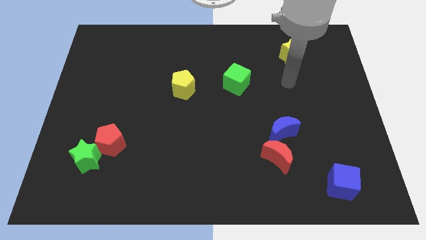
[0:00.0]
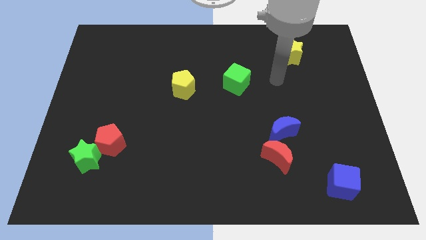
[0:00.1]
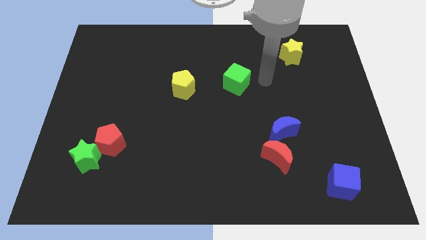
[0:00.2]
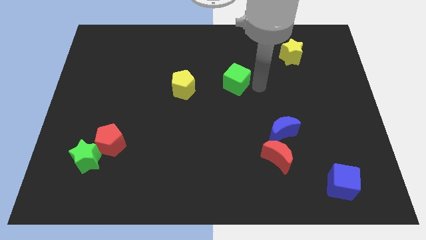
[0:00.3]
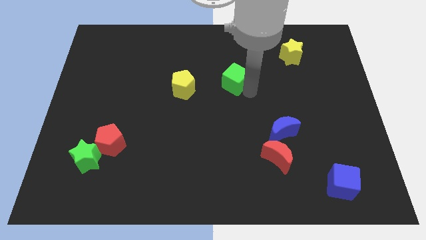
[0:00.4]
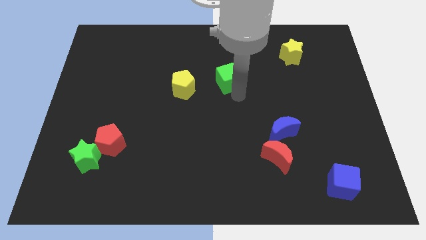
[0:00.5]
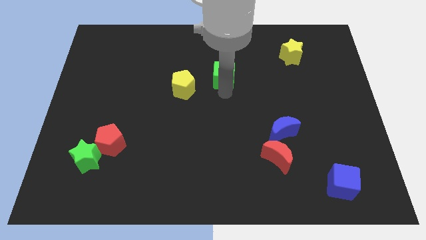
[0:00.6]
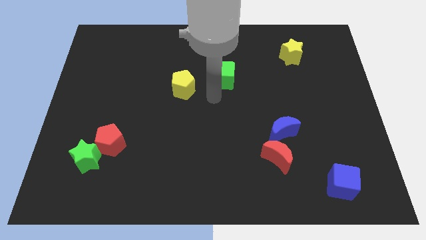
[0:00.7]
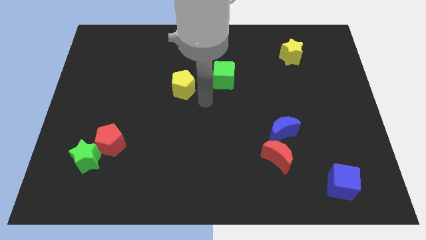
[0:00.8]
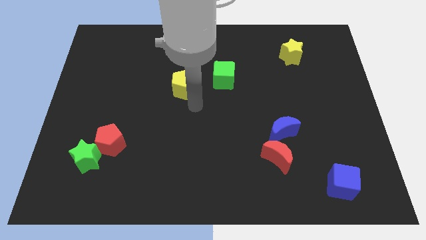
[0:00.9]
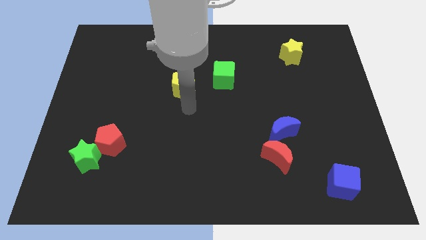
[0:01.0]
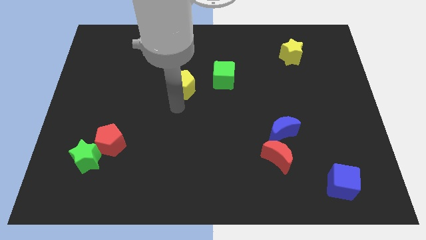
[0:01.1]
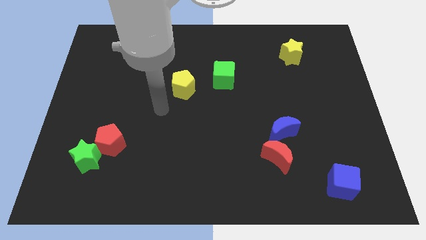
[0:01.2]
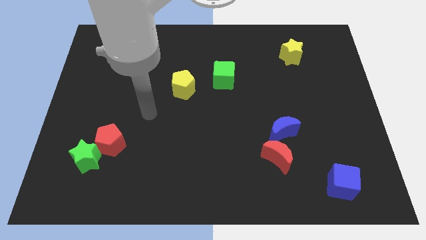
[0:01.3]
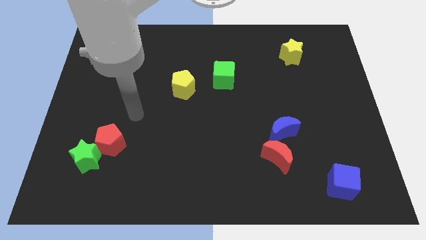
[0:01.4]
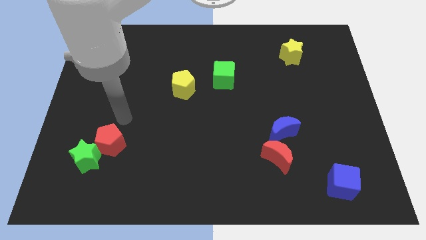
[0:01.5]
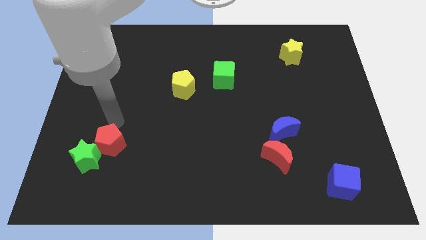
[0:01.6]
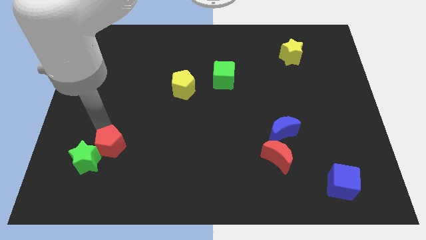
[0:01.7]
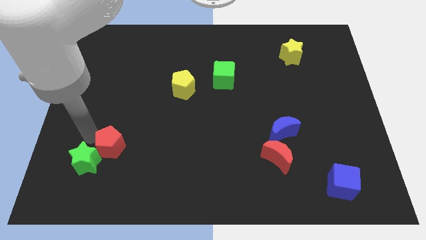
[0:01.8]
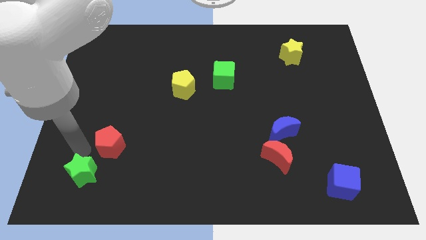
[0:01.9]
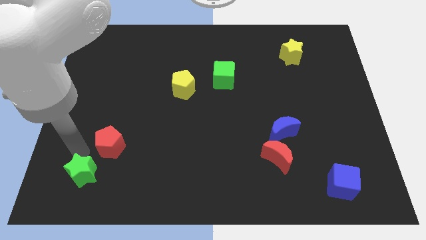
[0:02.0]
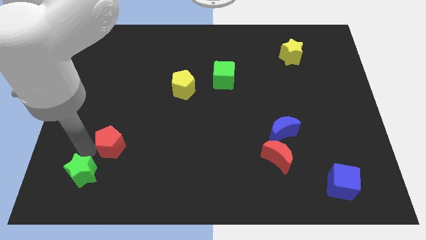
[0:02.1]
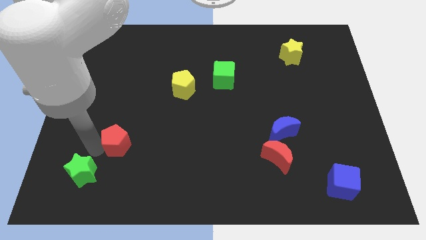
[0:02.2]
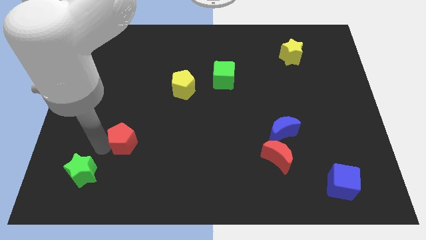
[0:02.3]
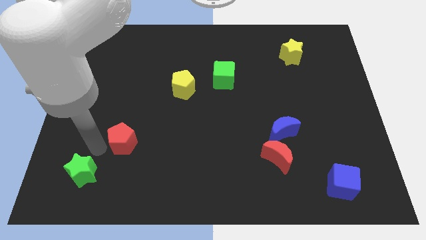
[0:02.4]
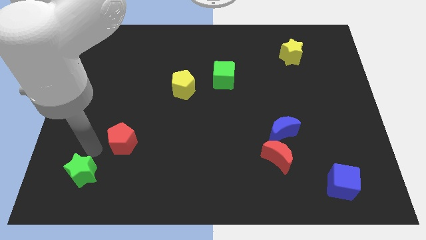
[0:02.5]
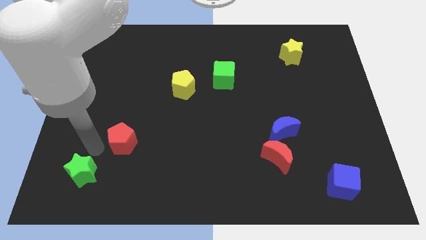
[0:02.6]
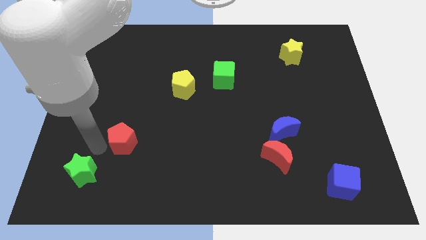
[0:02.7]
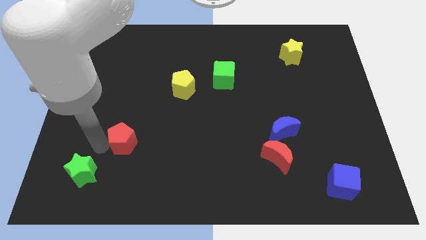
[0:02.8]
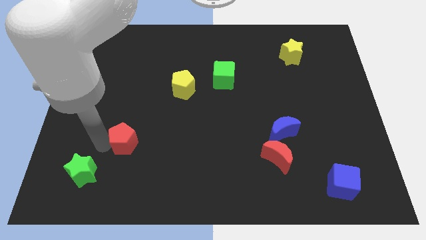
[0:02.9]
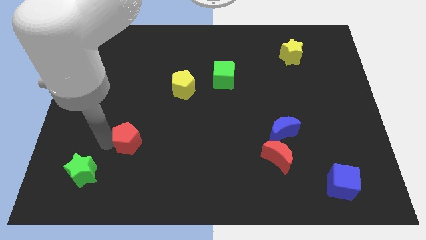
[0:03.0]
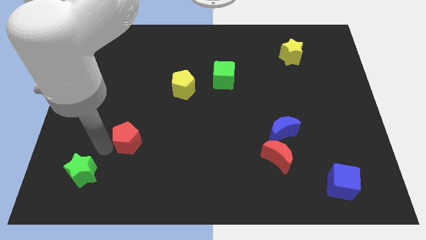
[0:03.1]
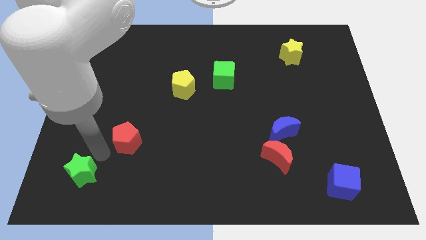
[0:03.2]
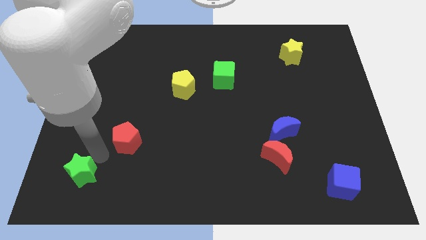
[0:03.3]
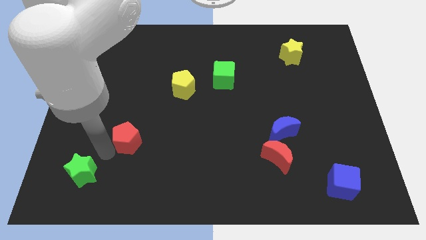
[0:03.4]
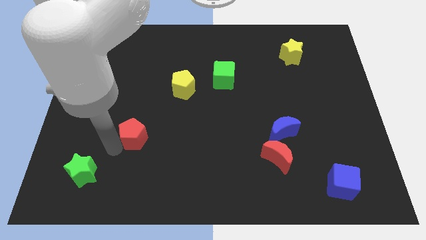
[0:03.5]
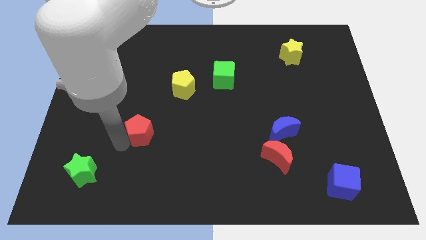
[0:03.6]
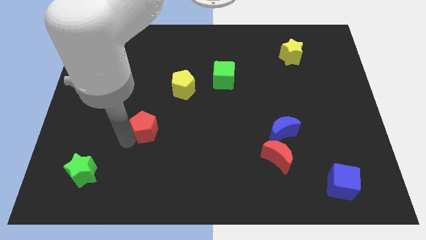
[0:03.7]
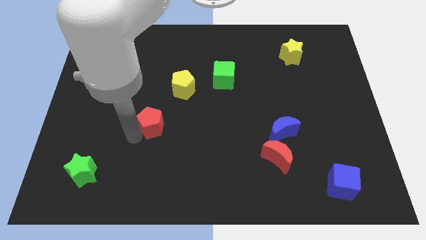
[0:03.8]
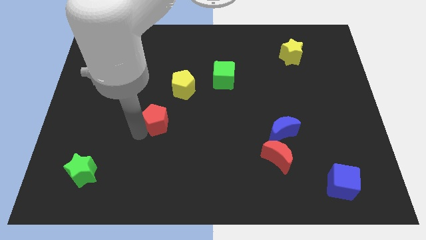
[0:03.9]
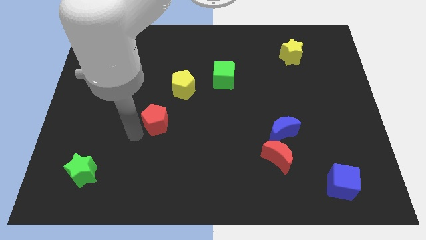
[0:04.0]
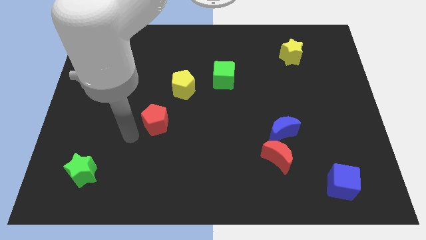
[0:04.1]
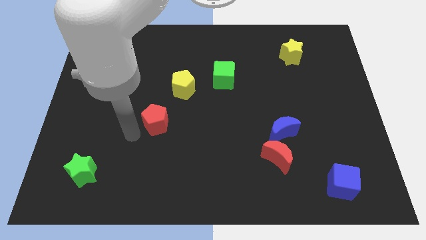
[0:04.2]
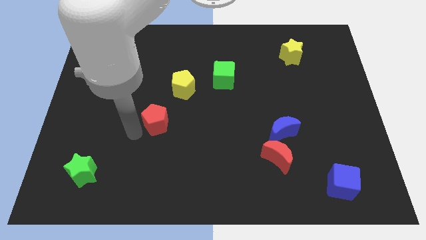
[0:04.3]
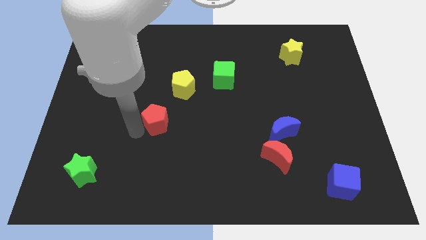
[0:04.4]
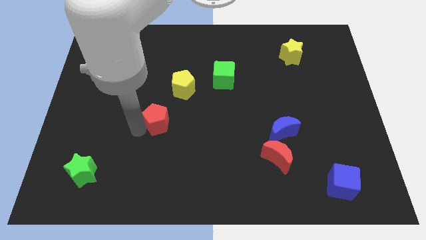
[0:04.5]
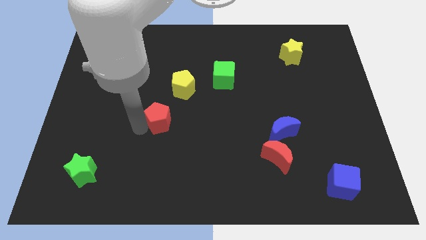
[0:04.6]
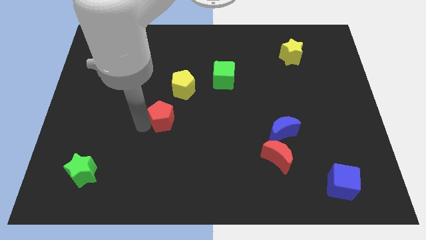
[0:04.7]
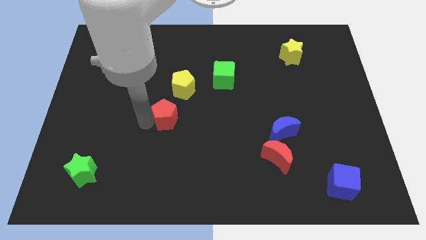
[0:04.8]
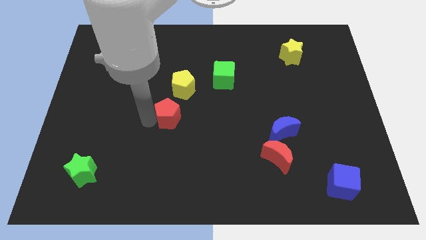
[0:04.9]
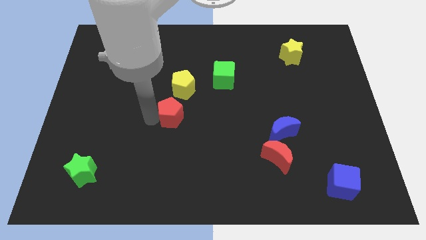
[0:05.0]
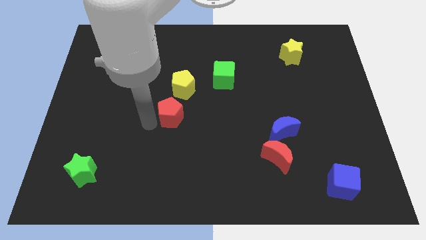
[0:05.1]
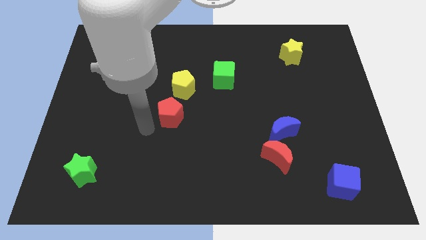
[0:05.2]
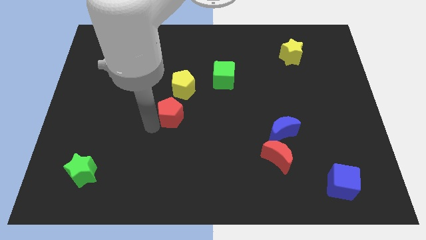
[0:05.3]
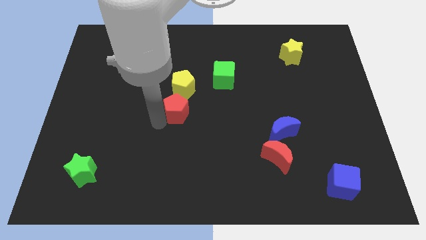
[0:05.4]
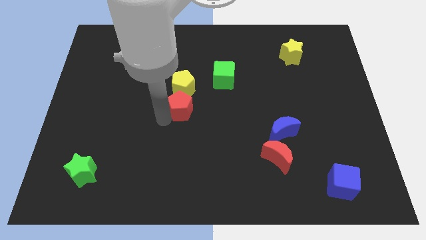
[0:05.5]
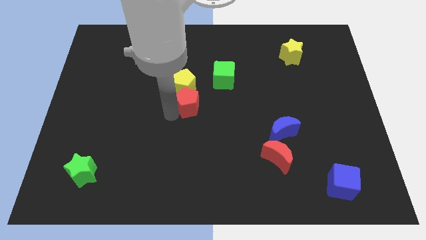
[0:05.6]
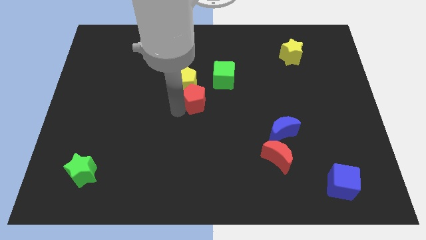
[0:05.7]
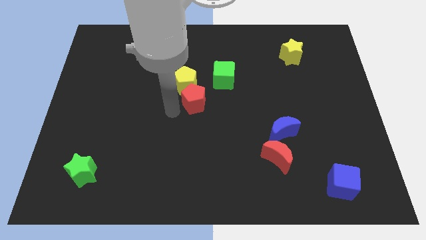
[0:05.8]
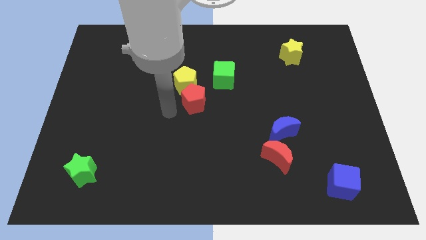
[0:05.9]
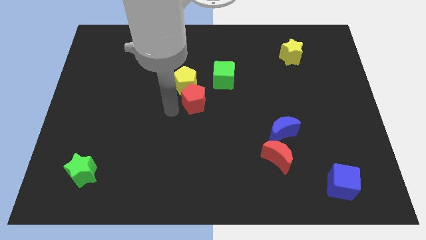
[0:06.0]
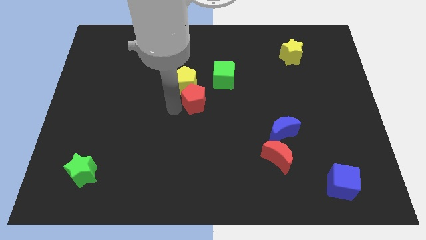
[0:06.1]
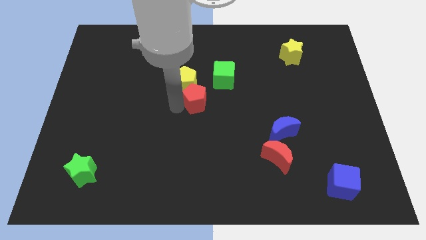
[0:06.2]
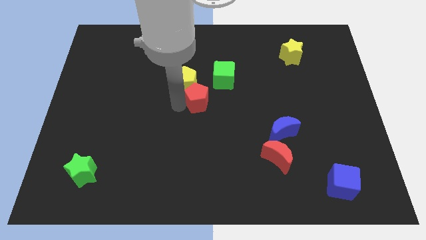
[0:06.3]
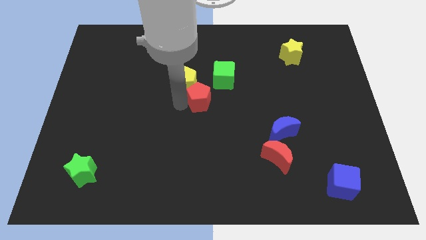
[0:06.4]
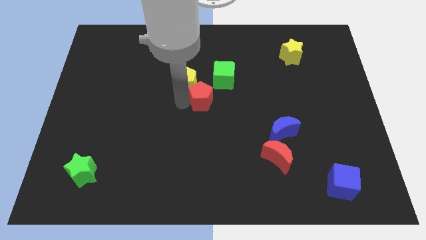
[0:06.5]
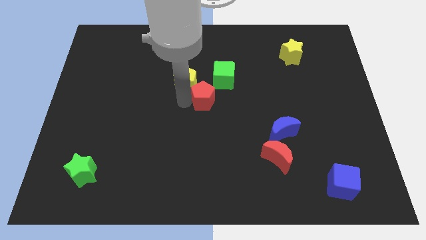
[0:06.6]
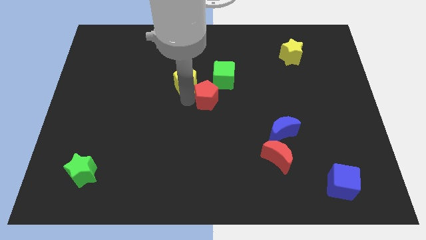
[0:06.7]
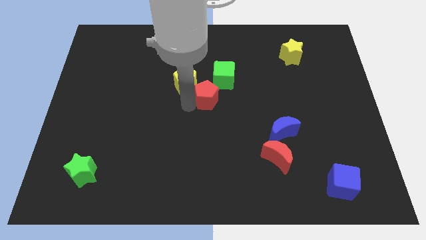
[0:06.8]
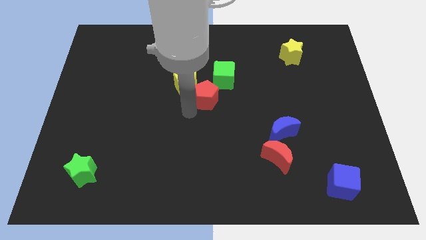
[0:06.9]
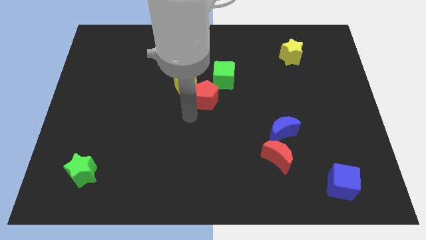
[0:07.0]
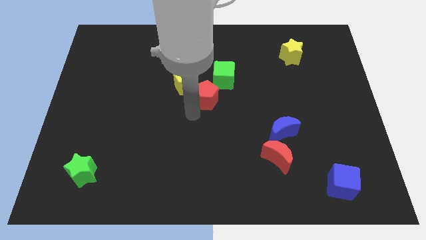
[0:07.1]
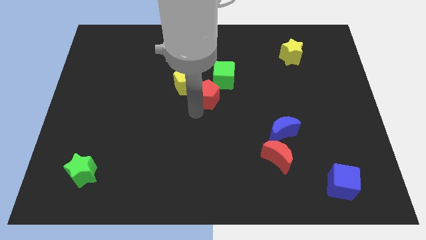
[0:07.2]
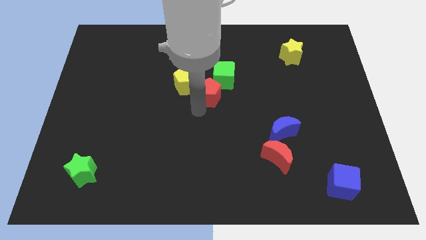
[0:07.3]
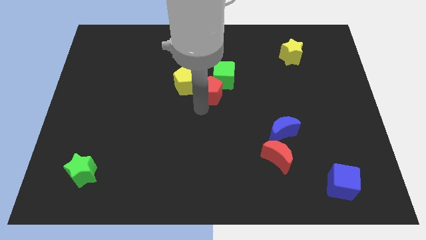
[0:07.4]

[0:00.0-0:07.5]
move the red pentagon towards the green cube
